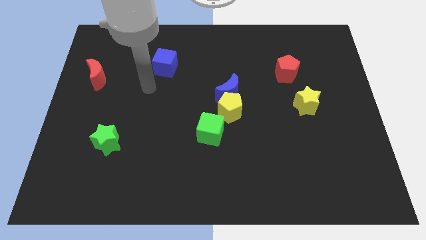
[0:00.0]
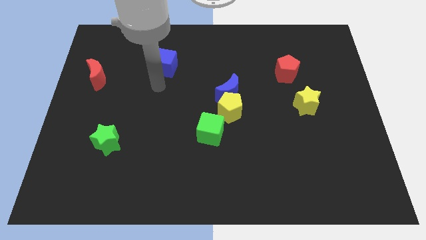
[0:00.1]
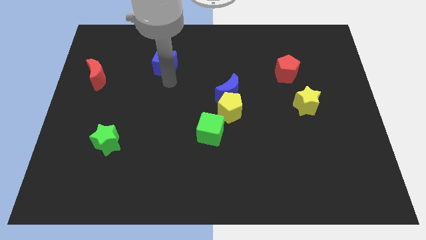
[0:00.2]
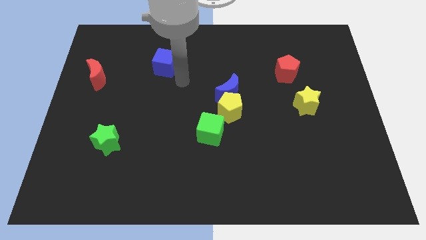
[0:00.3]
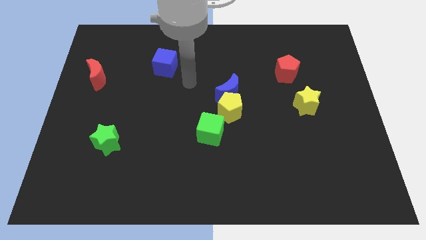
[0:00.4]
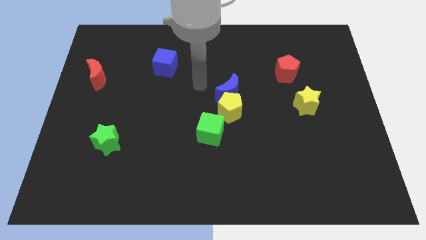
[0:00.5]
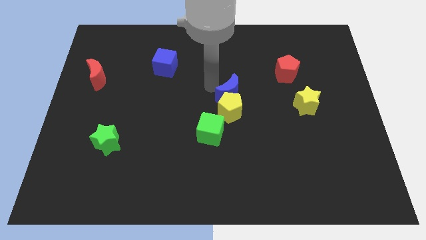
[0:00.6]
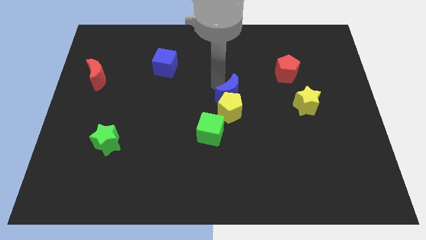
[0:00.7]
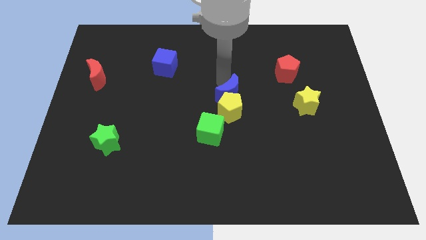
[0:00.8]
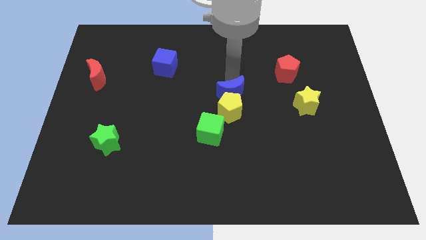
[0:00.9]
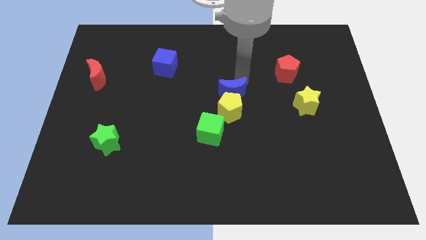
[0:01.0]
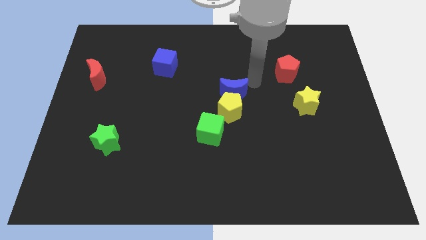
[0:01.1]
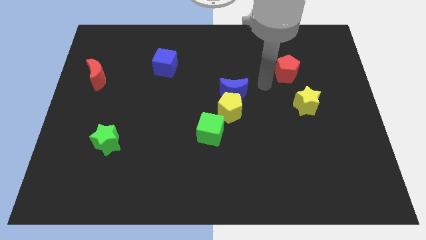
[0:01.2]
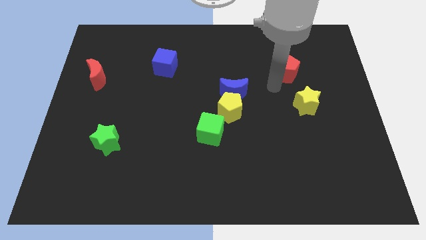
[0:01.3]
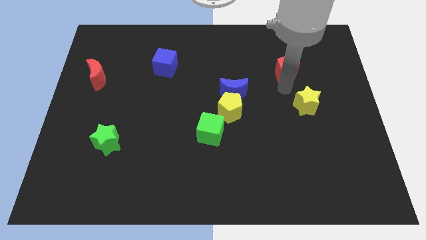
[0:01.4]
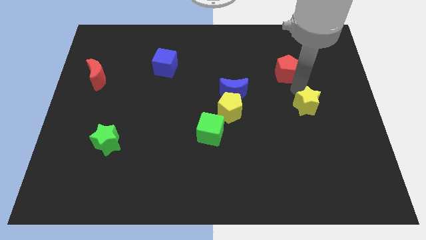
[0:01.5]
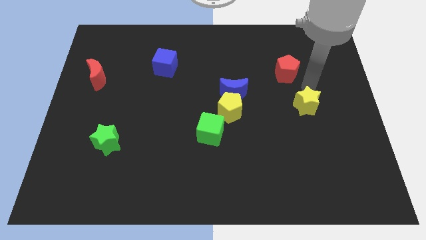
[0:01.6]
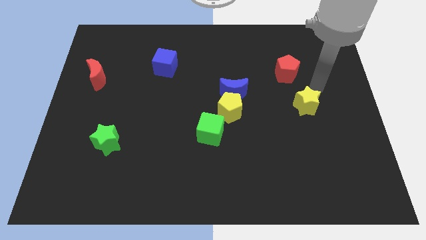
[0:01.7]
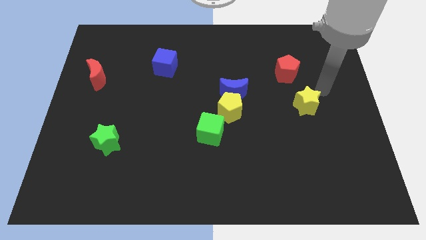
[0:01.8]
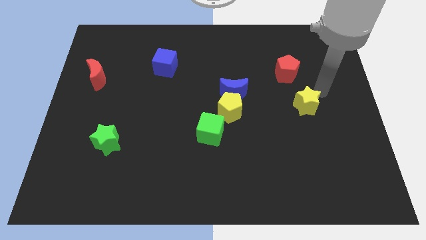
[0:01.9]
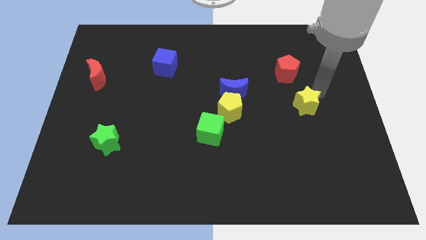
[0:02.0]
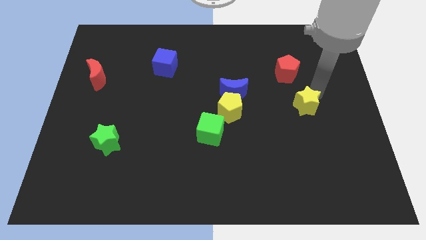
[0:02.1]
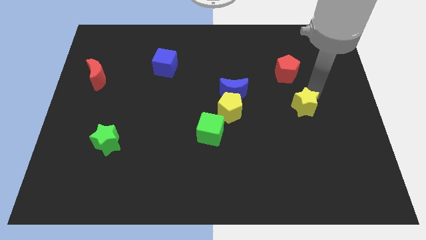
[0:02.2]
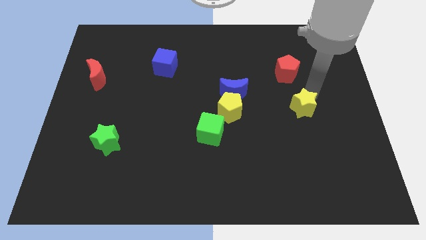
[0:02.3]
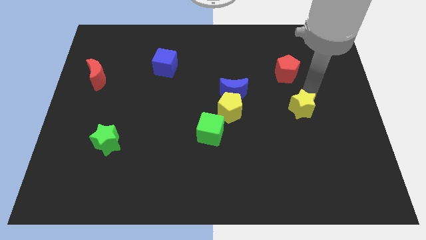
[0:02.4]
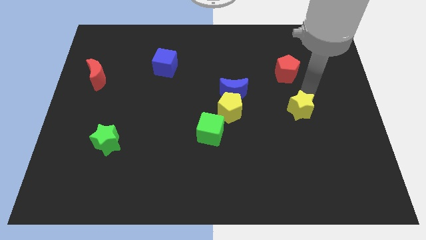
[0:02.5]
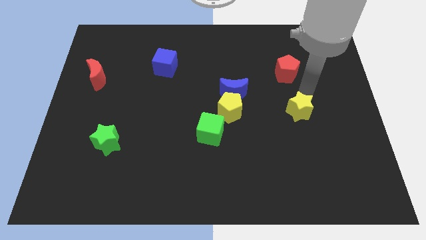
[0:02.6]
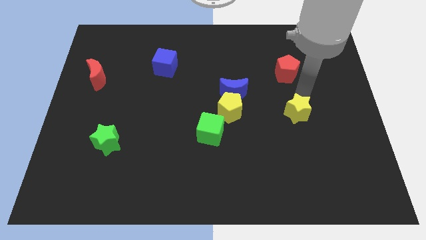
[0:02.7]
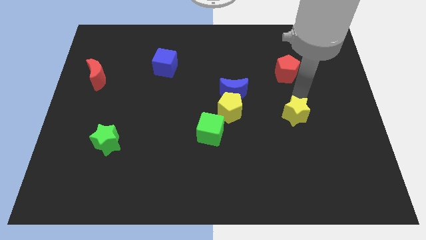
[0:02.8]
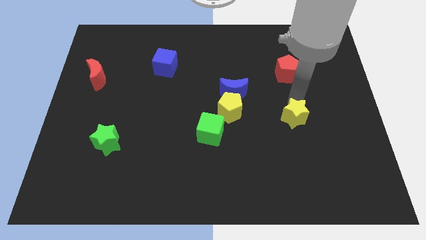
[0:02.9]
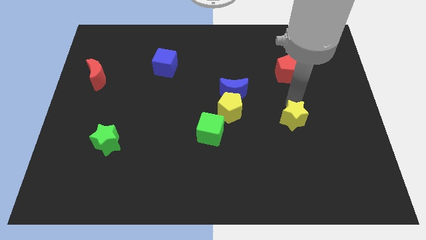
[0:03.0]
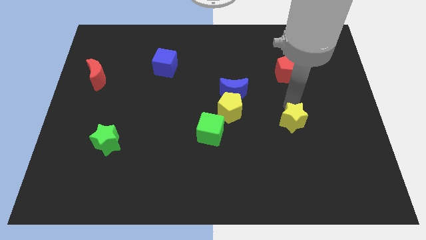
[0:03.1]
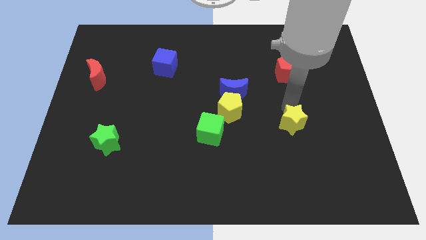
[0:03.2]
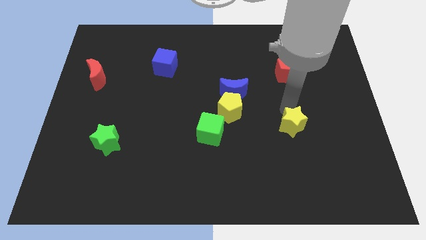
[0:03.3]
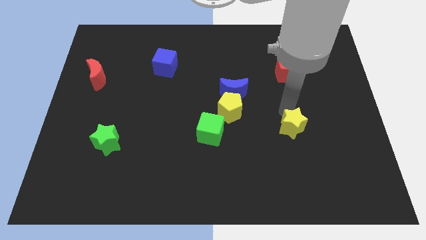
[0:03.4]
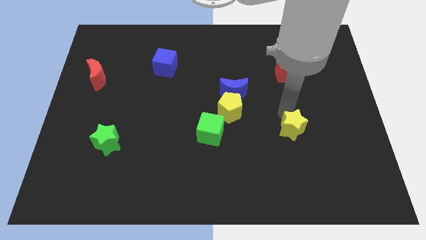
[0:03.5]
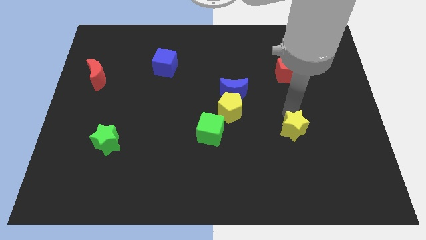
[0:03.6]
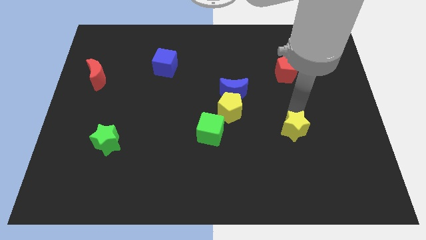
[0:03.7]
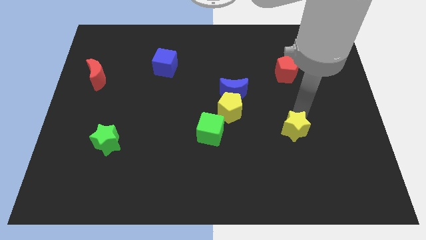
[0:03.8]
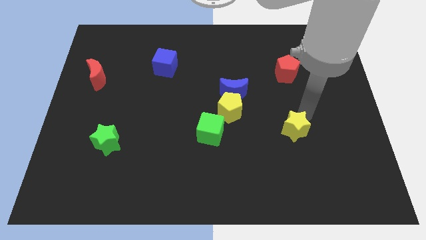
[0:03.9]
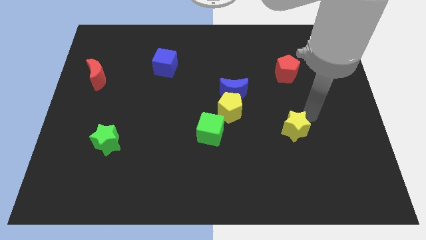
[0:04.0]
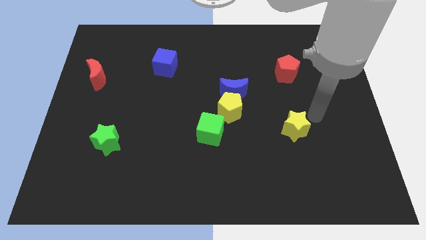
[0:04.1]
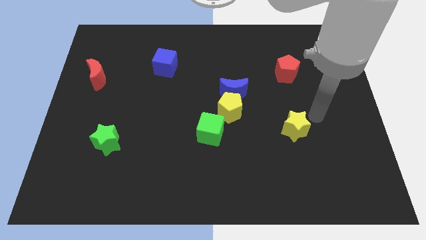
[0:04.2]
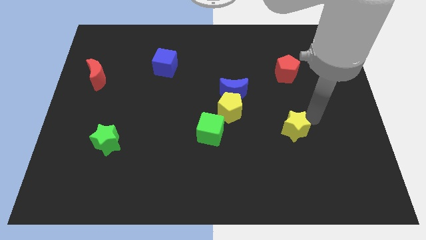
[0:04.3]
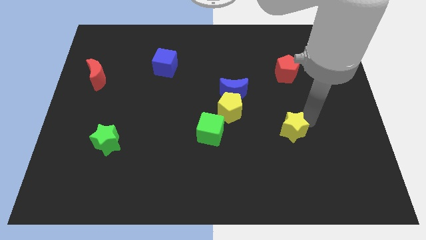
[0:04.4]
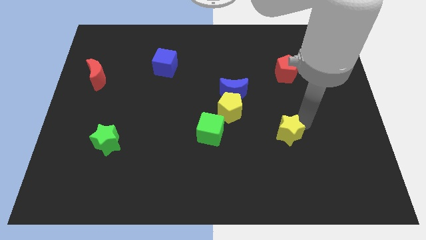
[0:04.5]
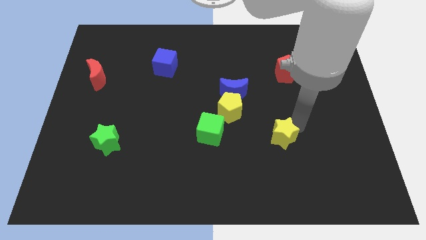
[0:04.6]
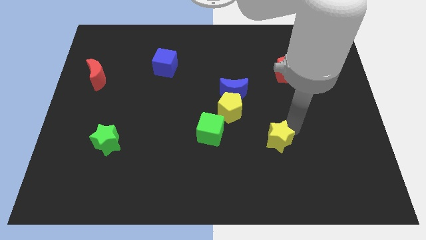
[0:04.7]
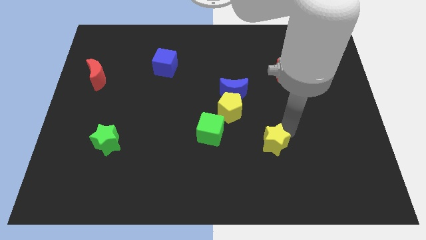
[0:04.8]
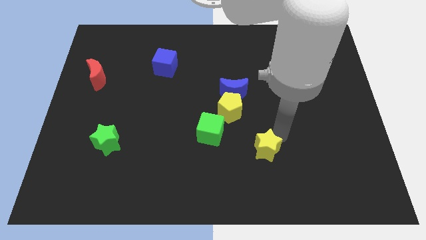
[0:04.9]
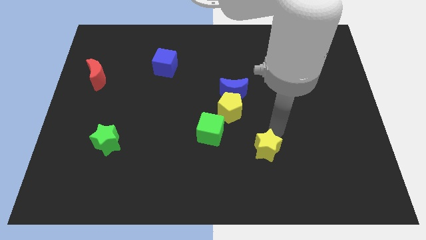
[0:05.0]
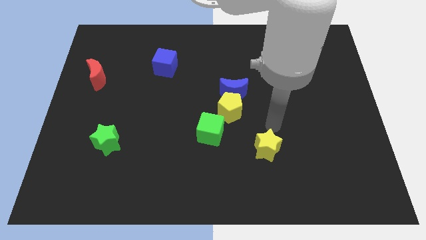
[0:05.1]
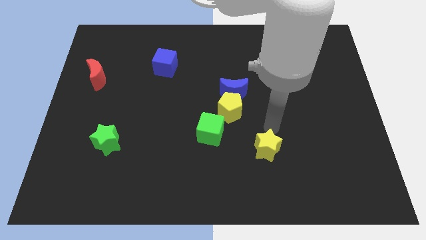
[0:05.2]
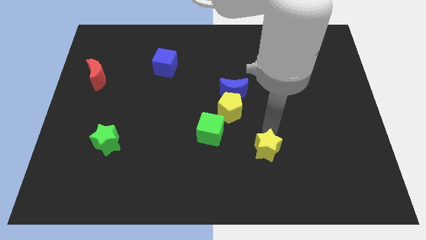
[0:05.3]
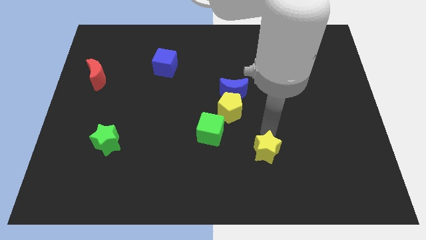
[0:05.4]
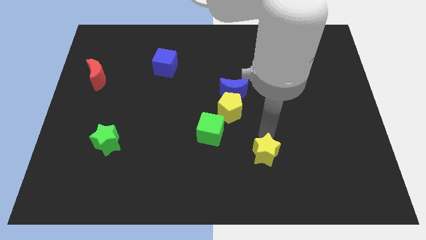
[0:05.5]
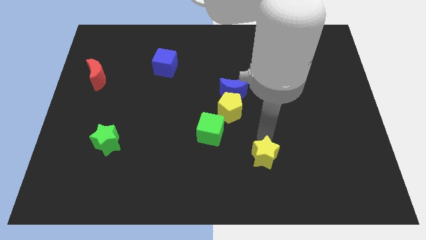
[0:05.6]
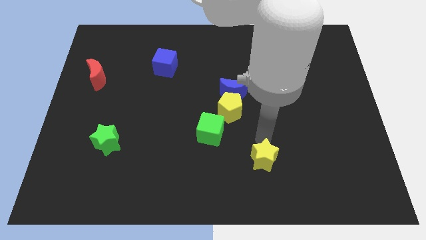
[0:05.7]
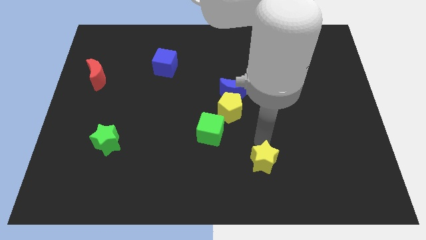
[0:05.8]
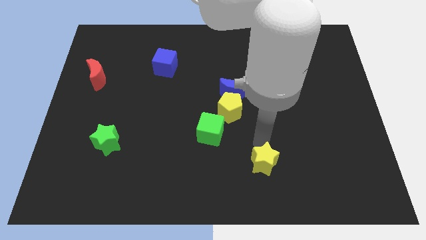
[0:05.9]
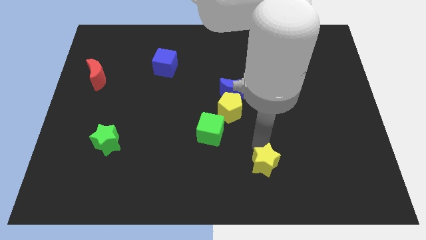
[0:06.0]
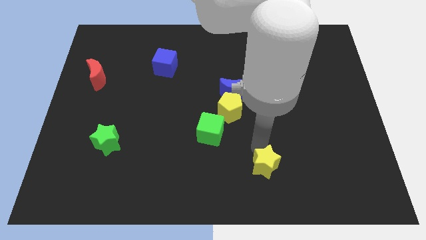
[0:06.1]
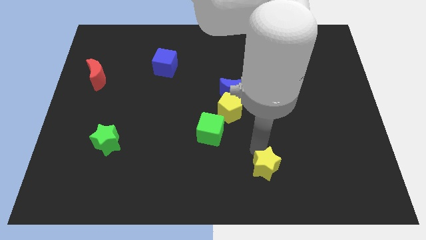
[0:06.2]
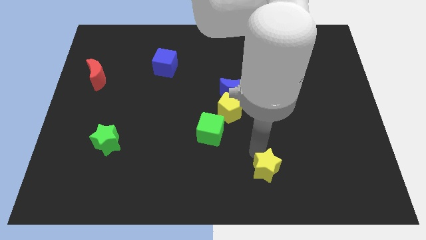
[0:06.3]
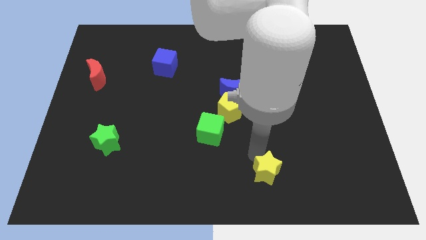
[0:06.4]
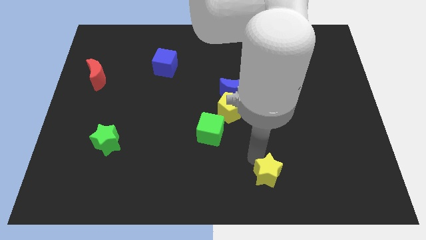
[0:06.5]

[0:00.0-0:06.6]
move the yellow star to the bottom side
